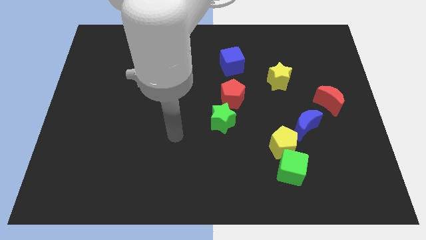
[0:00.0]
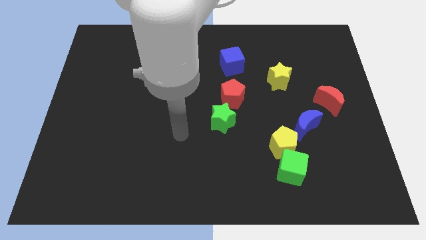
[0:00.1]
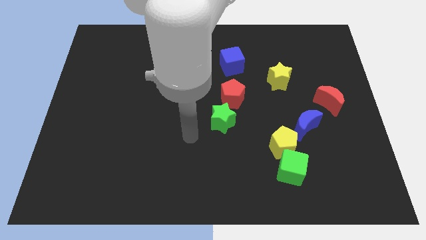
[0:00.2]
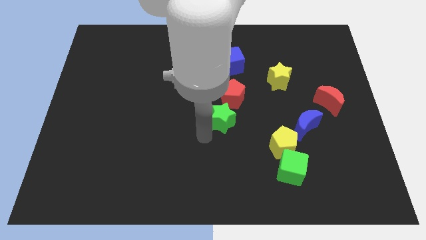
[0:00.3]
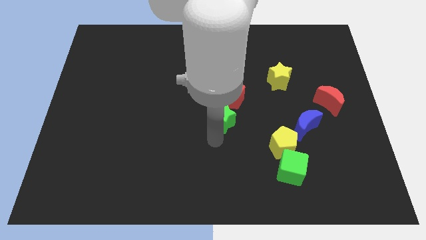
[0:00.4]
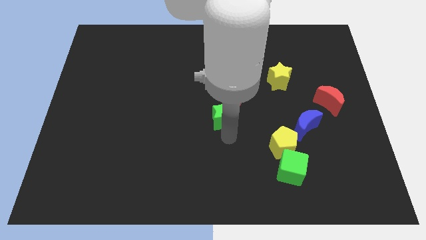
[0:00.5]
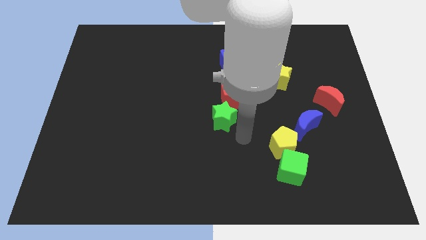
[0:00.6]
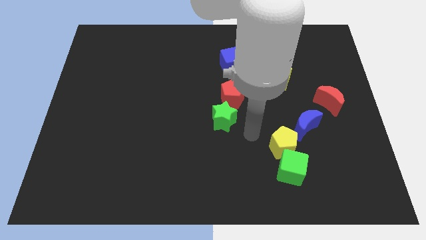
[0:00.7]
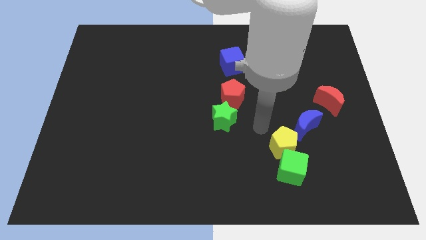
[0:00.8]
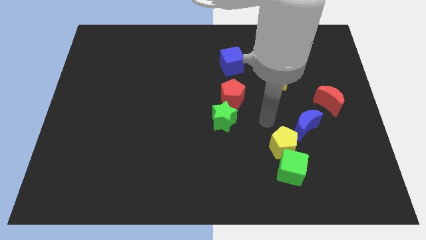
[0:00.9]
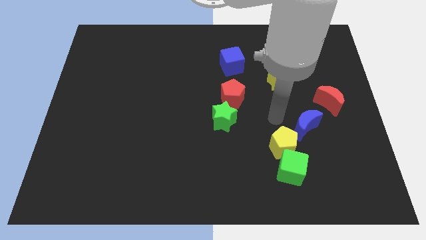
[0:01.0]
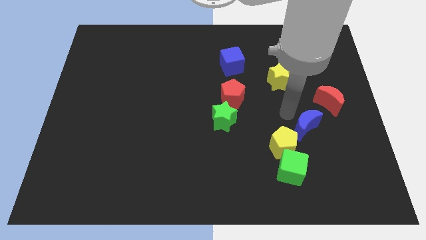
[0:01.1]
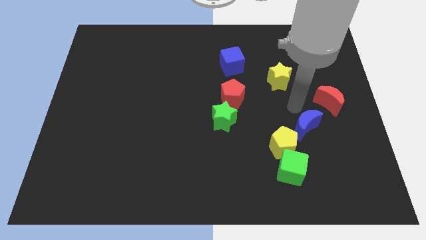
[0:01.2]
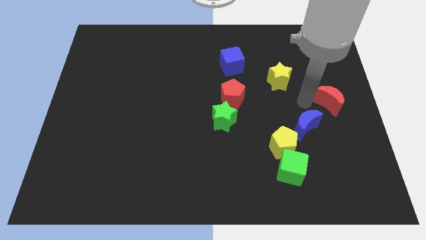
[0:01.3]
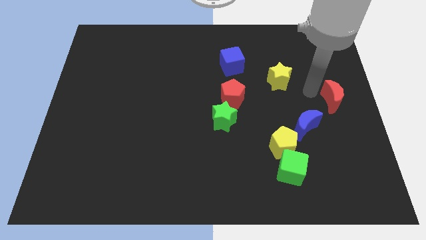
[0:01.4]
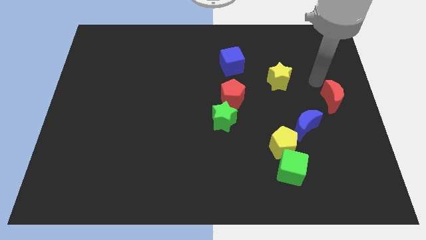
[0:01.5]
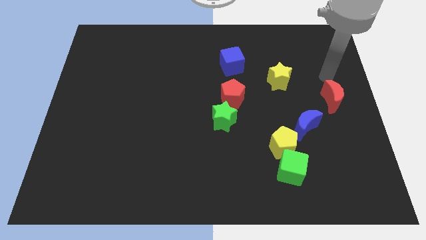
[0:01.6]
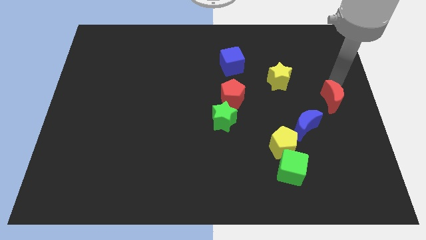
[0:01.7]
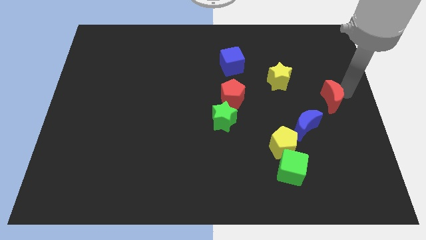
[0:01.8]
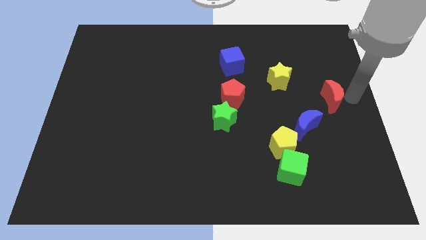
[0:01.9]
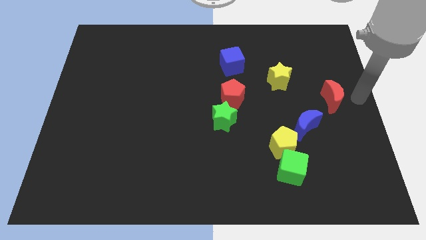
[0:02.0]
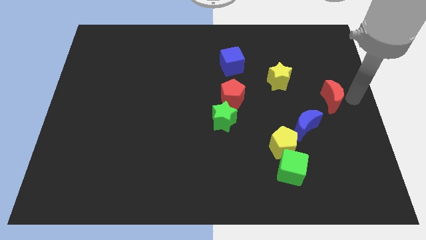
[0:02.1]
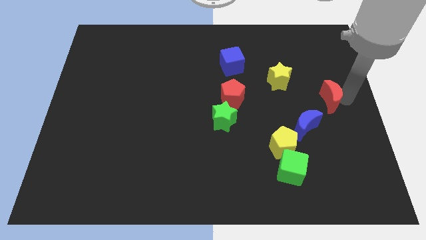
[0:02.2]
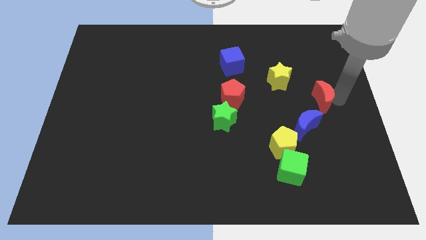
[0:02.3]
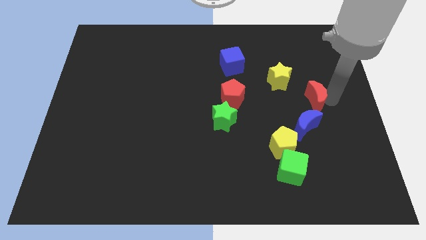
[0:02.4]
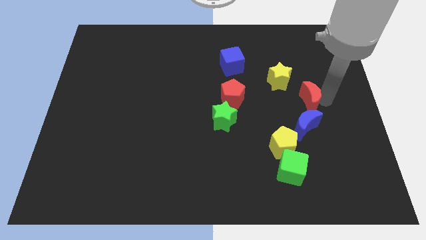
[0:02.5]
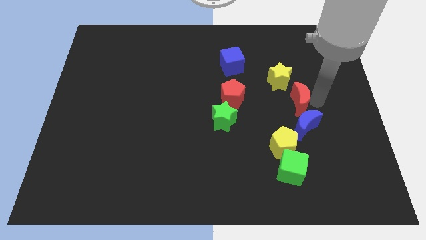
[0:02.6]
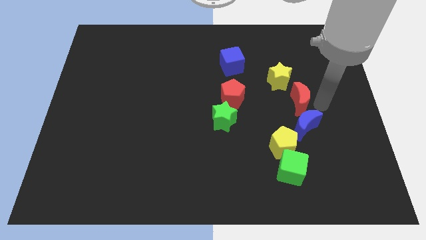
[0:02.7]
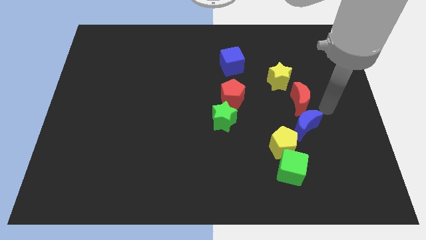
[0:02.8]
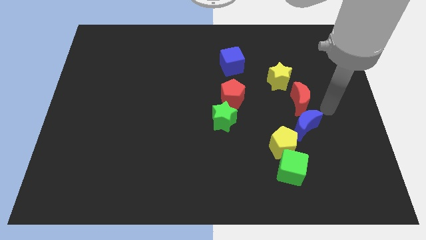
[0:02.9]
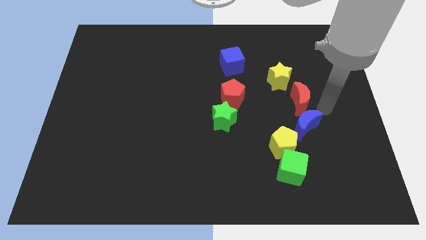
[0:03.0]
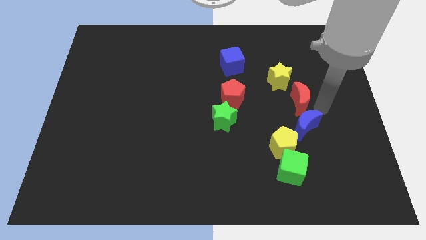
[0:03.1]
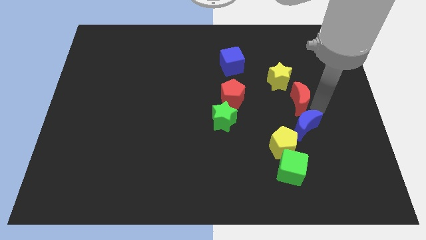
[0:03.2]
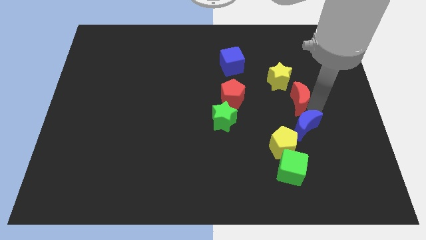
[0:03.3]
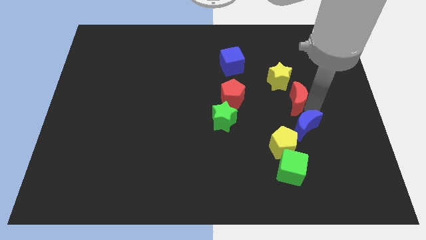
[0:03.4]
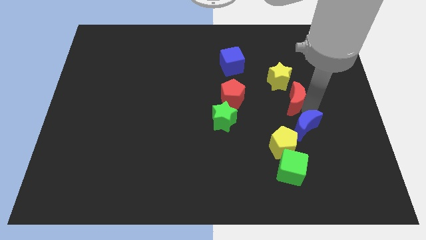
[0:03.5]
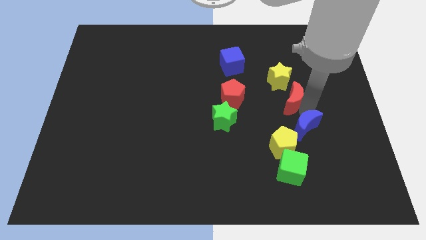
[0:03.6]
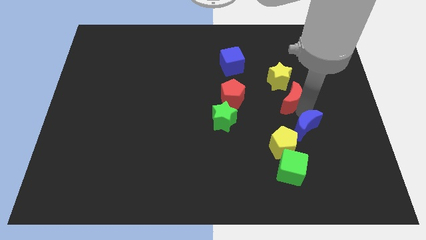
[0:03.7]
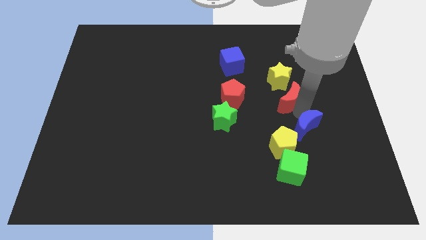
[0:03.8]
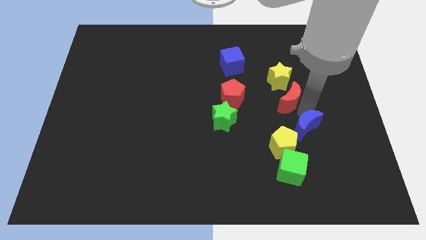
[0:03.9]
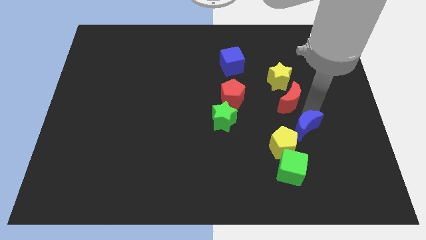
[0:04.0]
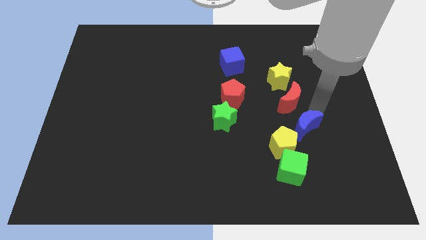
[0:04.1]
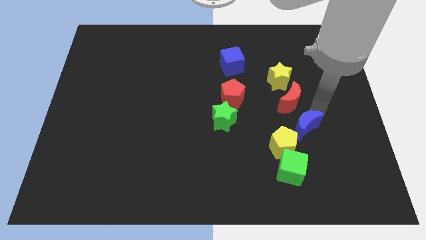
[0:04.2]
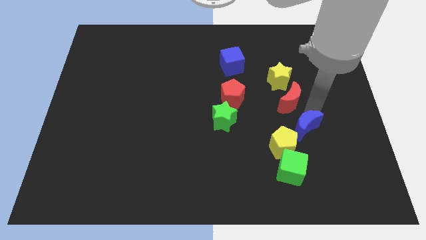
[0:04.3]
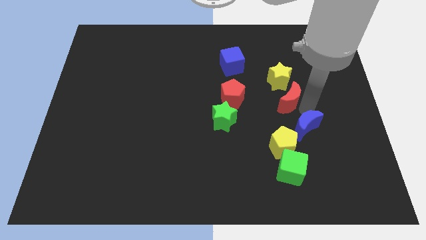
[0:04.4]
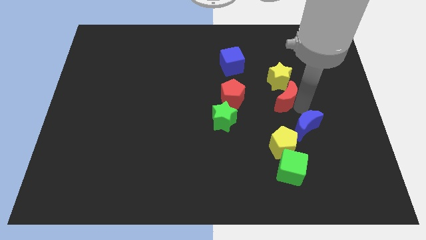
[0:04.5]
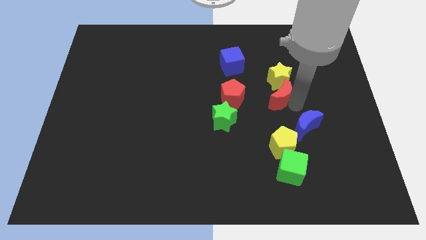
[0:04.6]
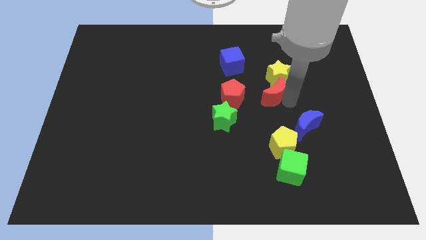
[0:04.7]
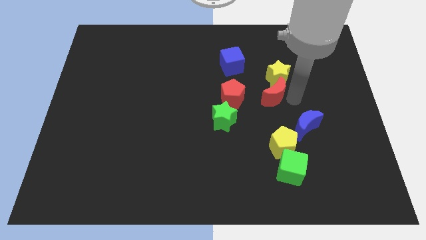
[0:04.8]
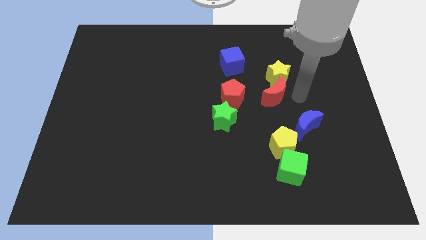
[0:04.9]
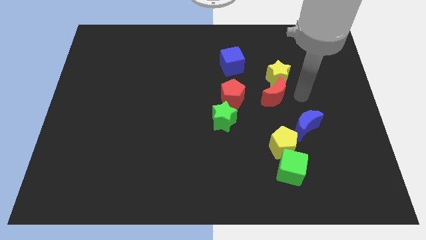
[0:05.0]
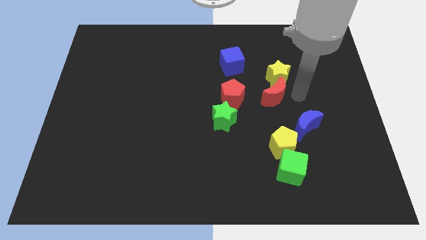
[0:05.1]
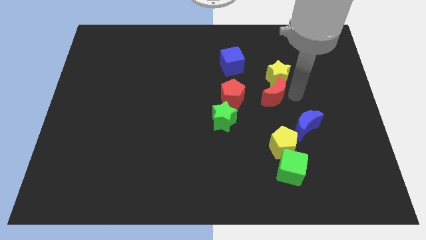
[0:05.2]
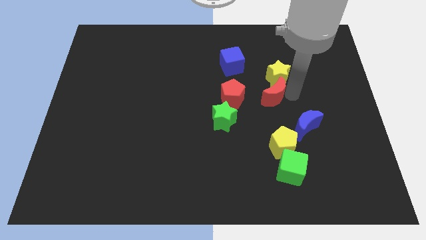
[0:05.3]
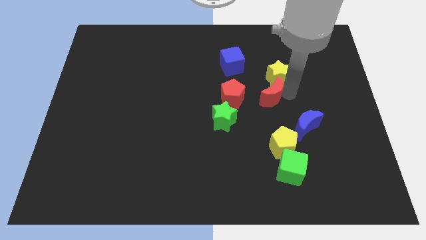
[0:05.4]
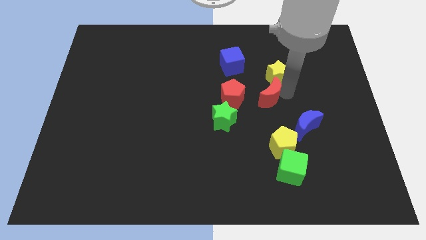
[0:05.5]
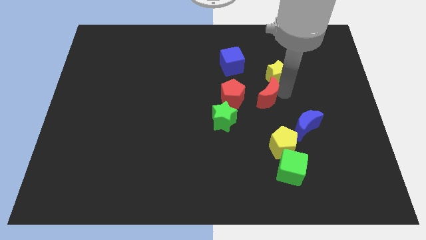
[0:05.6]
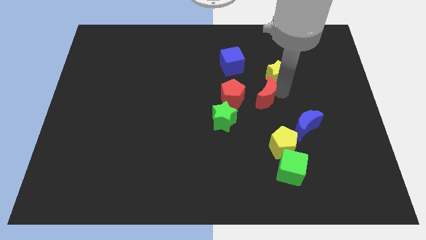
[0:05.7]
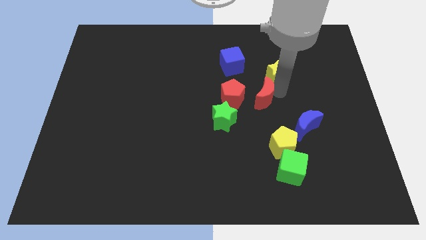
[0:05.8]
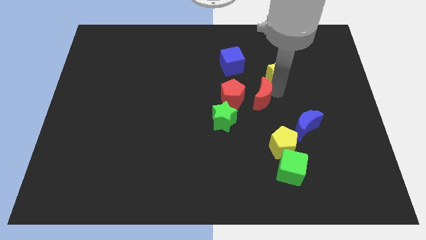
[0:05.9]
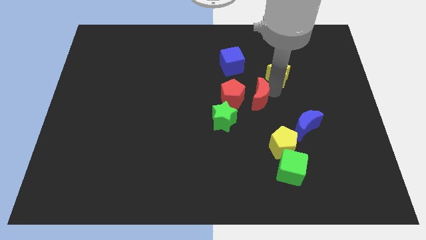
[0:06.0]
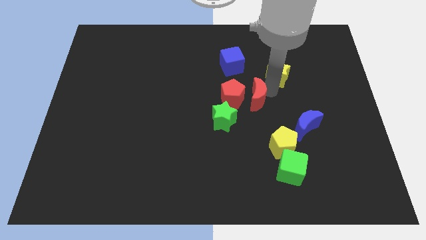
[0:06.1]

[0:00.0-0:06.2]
slide the red moon towards the red pentagon
